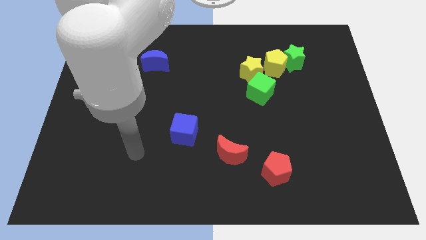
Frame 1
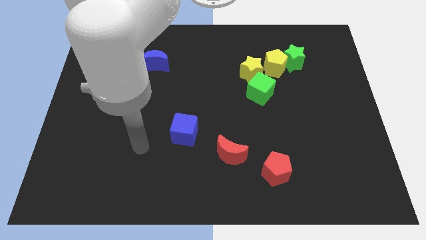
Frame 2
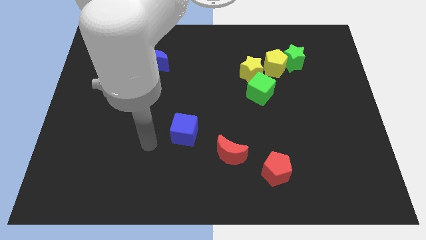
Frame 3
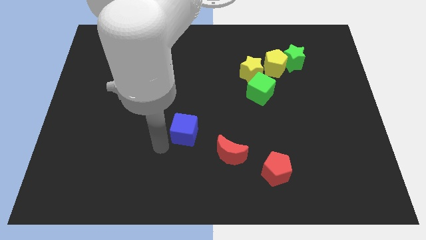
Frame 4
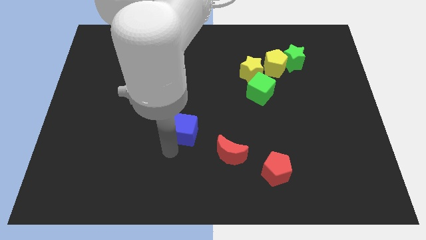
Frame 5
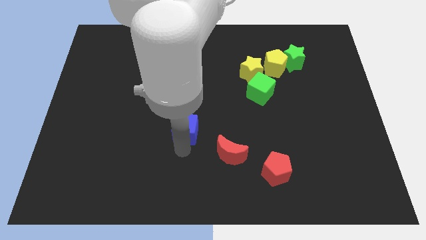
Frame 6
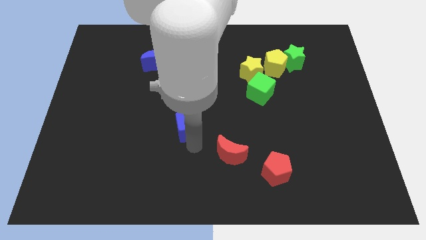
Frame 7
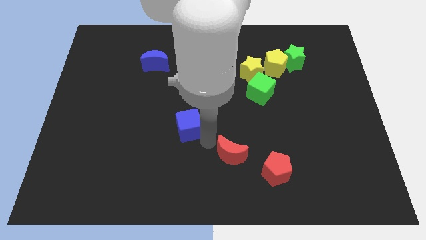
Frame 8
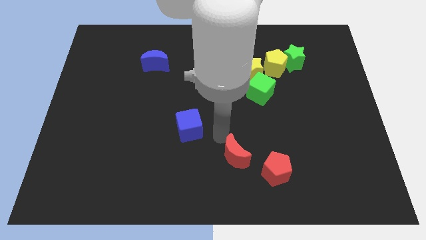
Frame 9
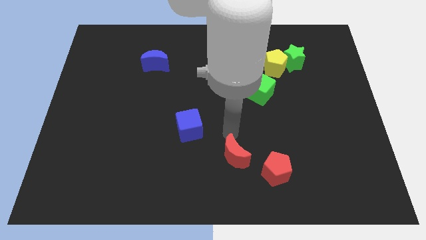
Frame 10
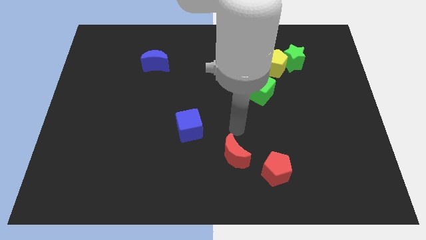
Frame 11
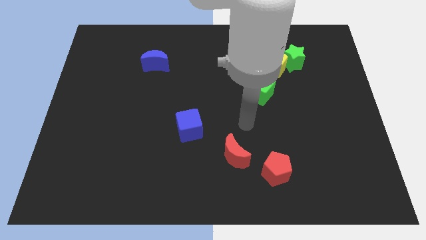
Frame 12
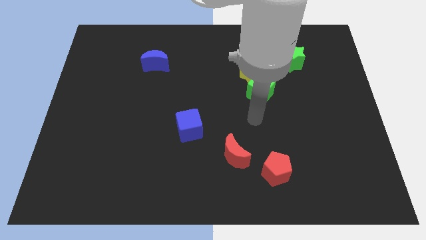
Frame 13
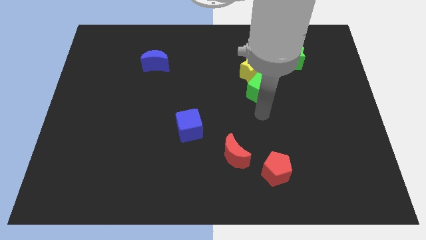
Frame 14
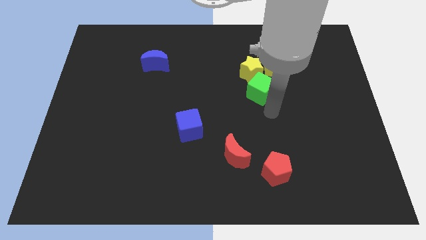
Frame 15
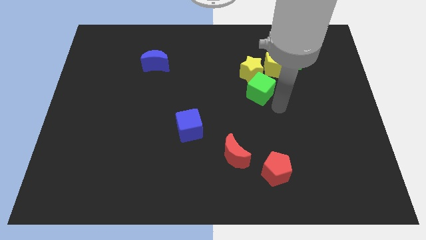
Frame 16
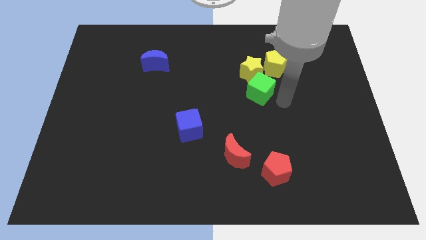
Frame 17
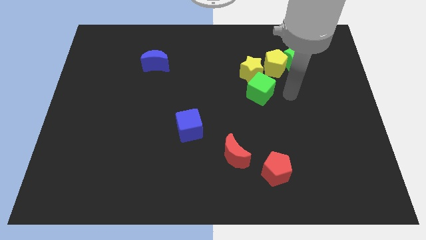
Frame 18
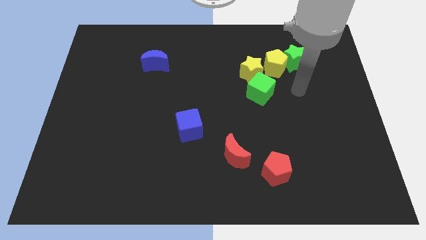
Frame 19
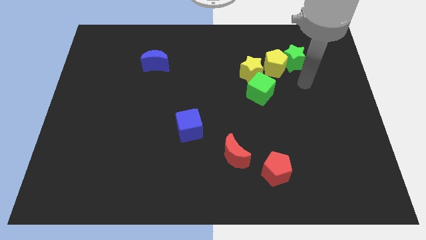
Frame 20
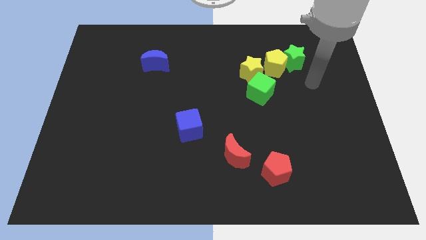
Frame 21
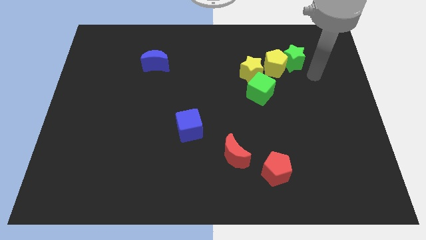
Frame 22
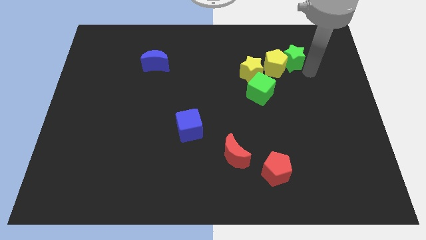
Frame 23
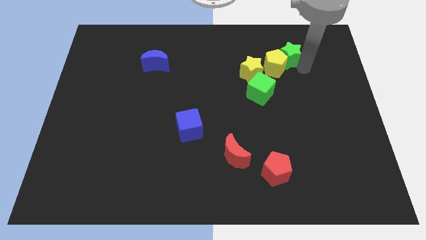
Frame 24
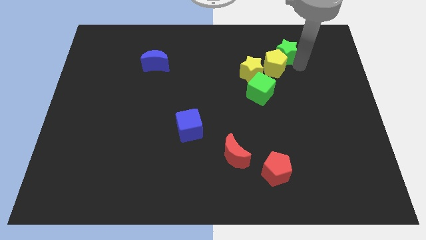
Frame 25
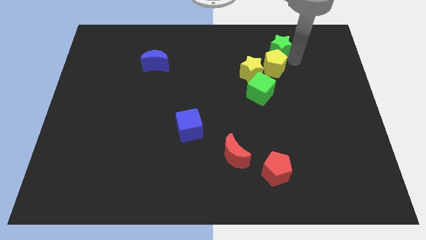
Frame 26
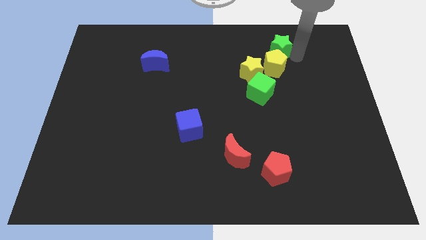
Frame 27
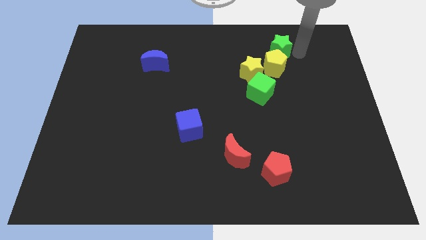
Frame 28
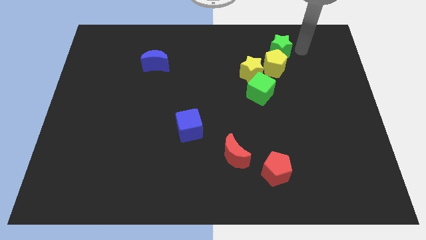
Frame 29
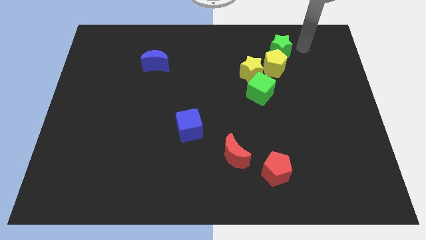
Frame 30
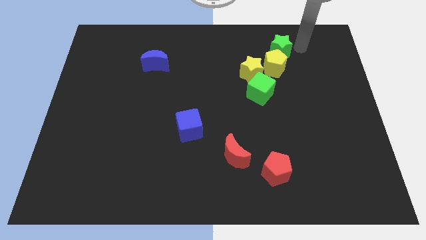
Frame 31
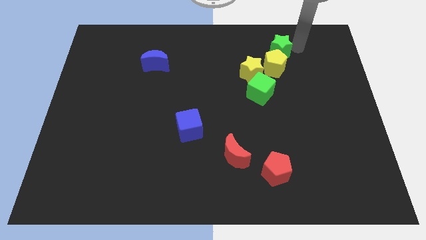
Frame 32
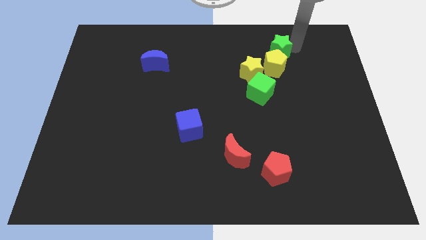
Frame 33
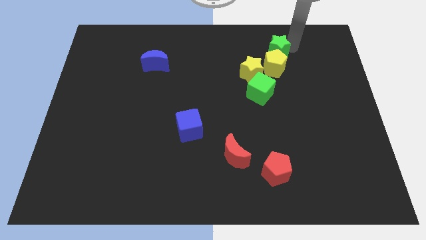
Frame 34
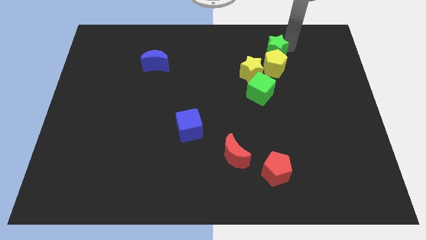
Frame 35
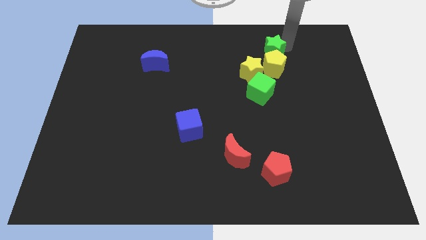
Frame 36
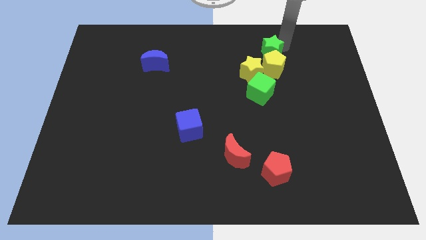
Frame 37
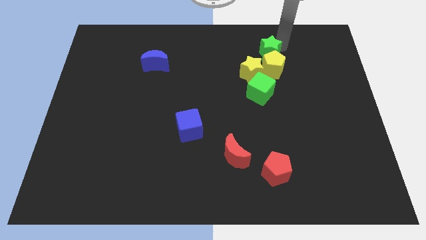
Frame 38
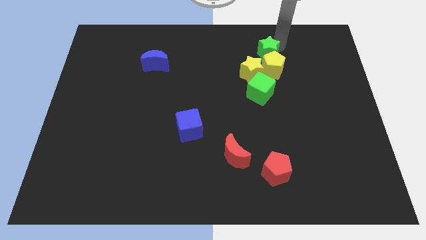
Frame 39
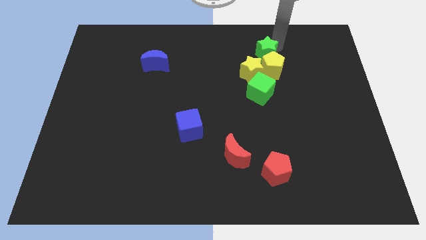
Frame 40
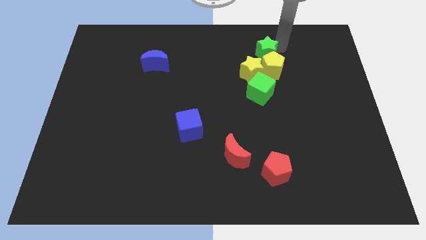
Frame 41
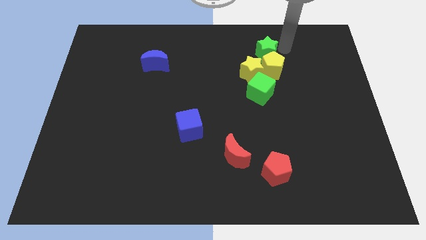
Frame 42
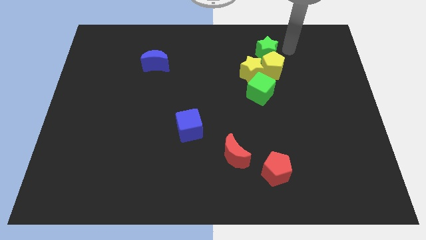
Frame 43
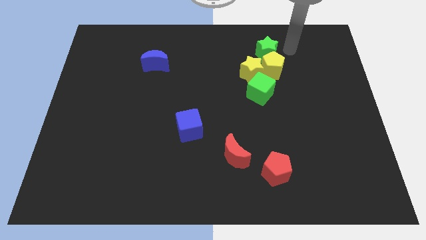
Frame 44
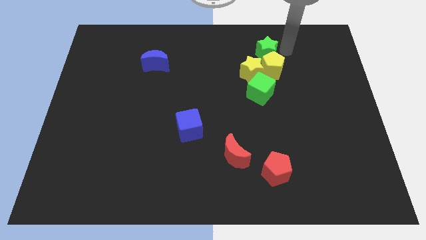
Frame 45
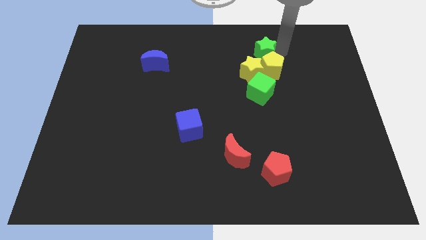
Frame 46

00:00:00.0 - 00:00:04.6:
slightly slide the green star left

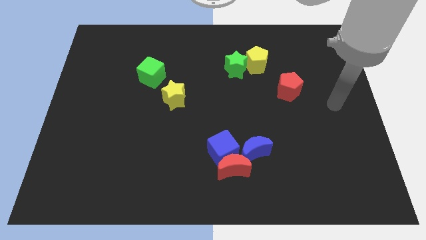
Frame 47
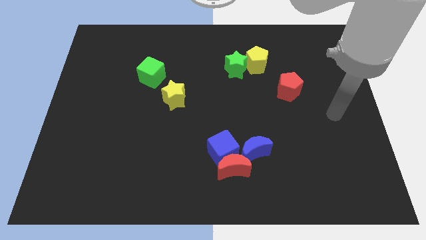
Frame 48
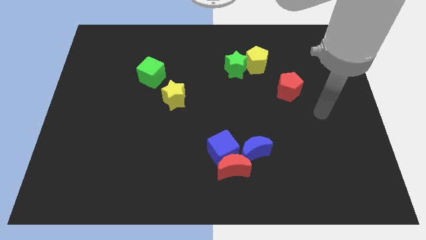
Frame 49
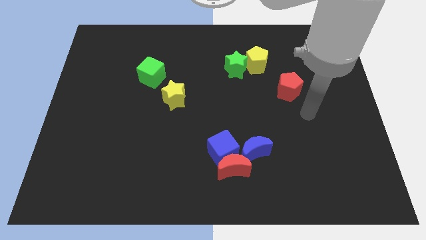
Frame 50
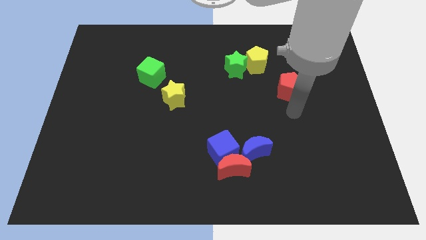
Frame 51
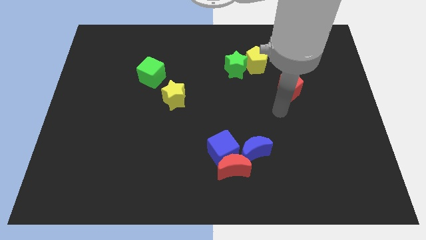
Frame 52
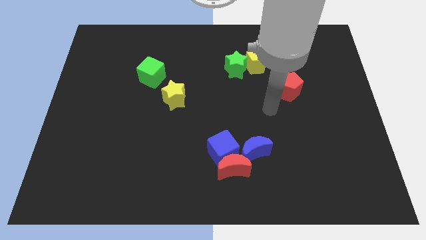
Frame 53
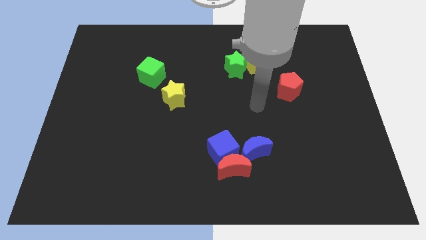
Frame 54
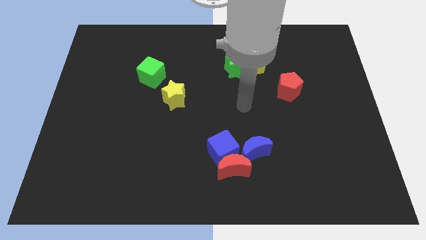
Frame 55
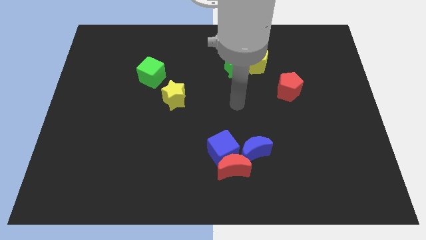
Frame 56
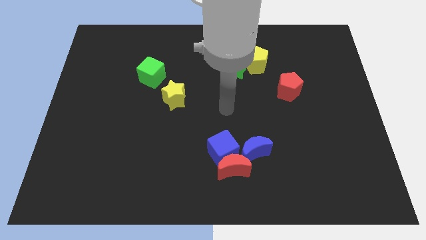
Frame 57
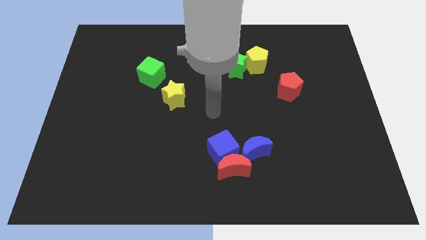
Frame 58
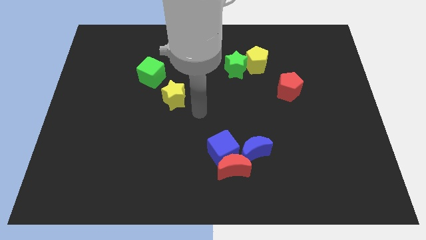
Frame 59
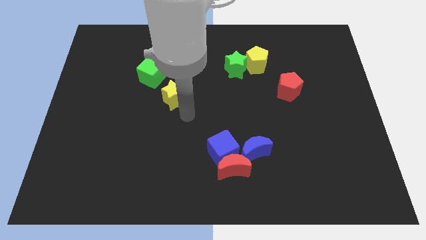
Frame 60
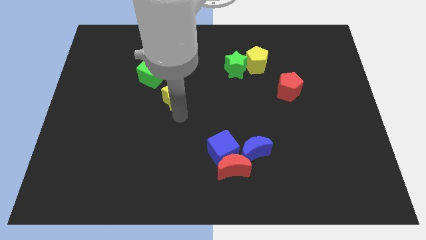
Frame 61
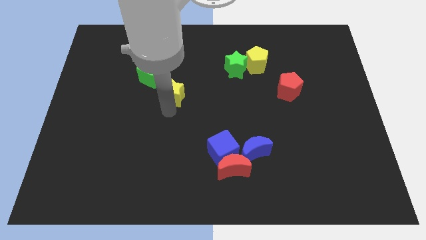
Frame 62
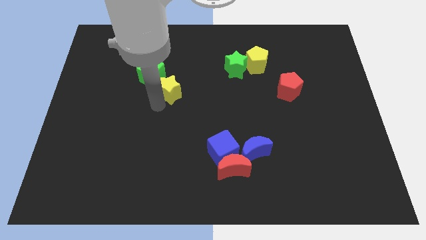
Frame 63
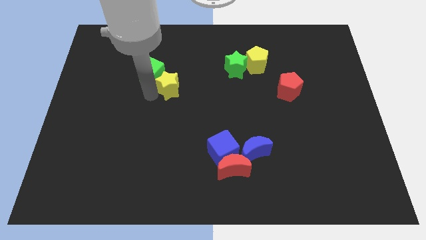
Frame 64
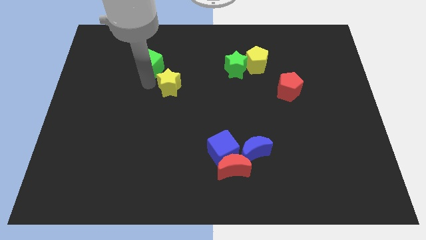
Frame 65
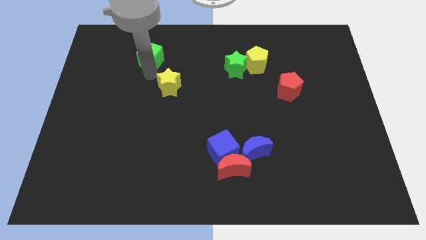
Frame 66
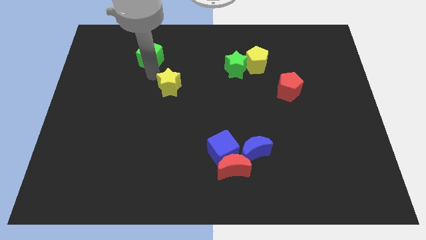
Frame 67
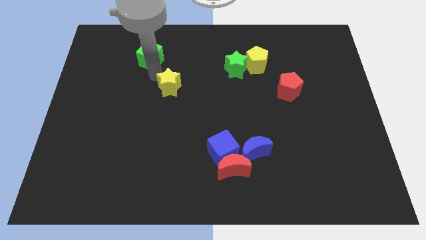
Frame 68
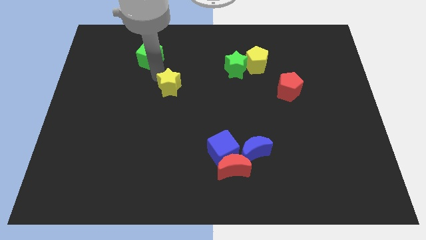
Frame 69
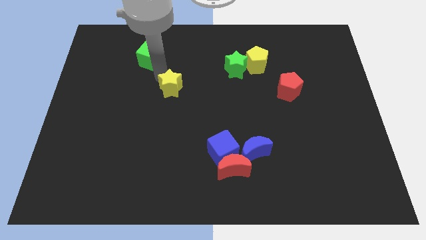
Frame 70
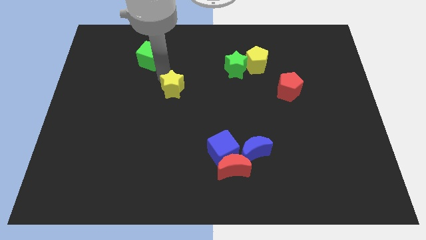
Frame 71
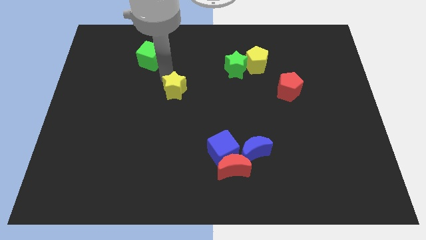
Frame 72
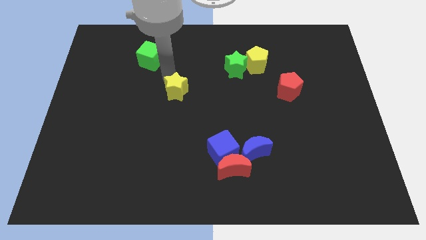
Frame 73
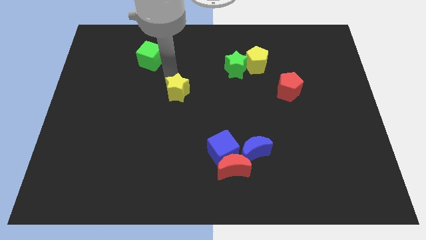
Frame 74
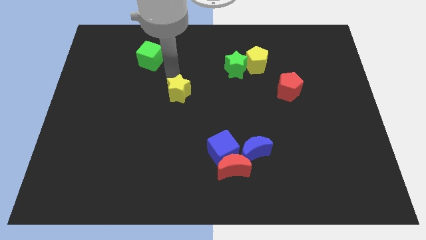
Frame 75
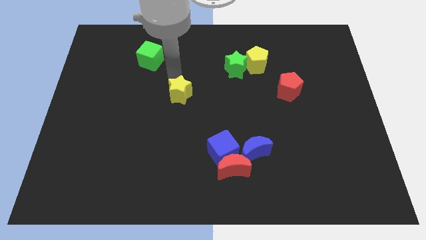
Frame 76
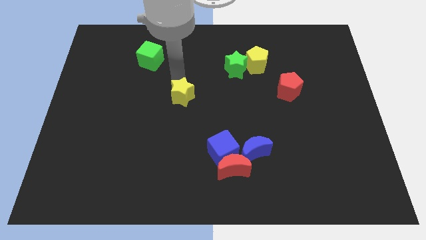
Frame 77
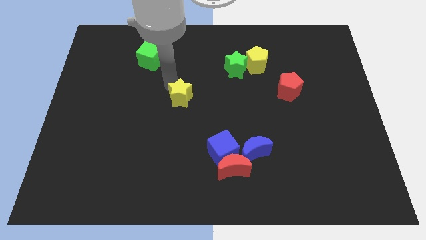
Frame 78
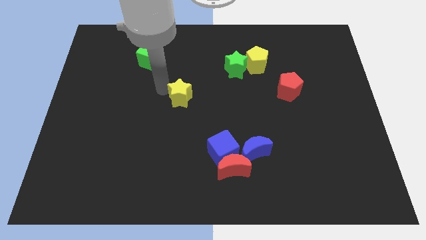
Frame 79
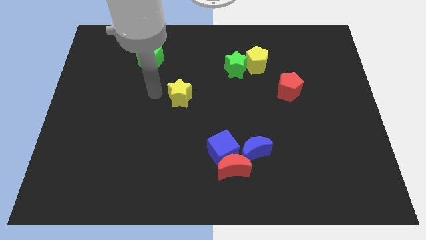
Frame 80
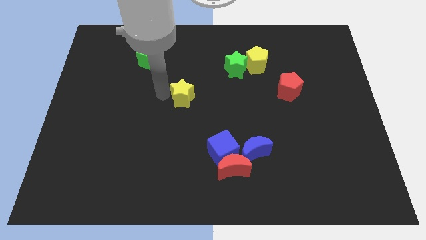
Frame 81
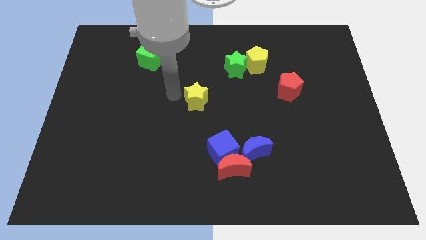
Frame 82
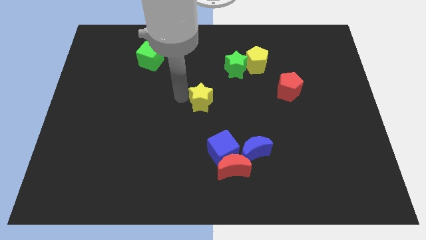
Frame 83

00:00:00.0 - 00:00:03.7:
slide the yellow star to the right a bit
